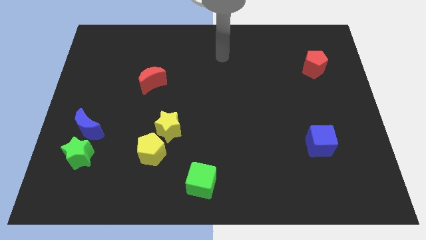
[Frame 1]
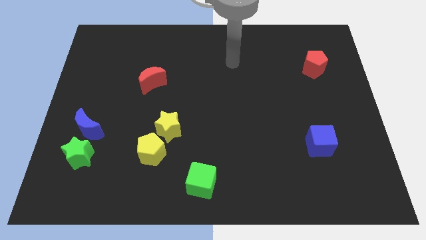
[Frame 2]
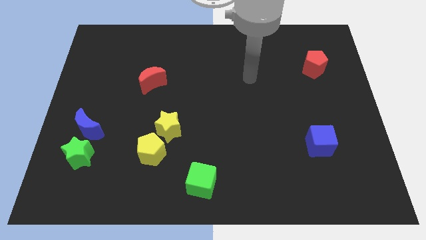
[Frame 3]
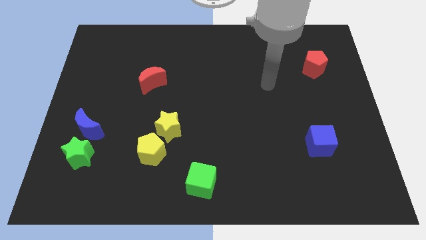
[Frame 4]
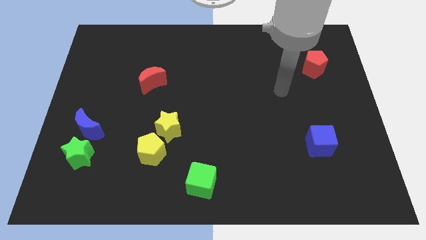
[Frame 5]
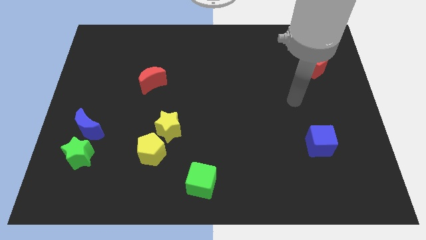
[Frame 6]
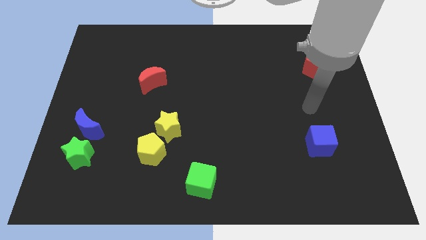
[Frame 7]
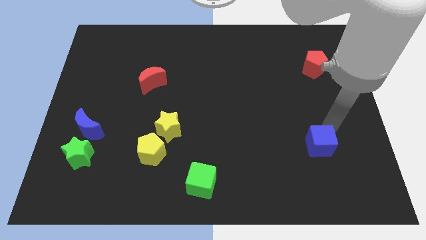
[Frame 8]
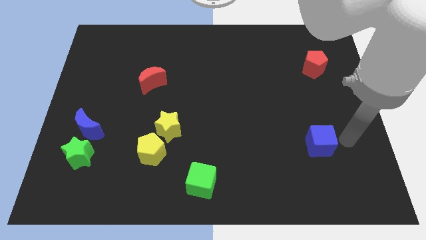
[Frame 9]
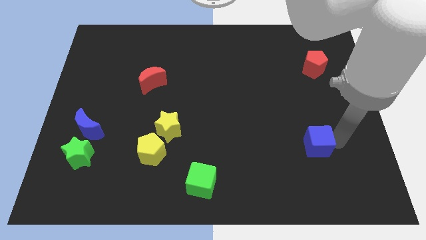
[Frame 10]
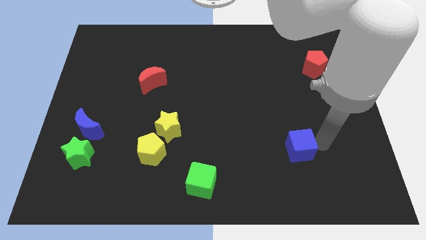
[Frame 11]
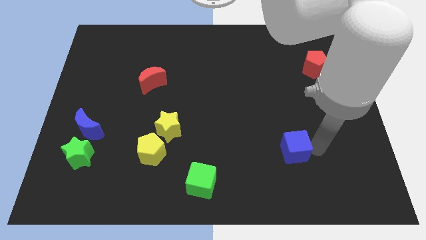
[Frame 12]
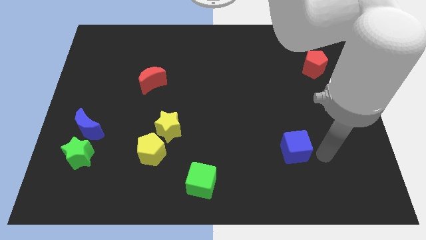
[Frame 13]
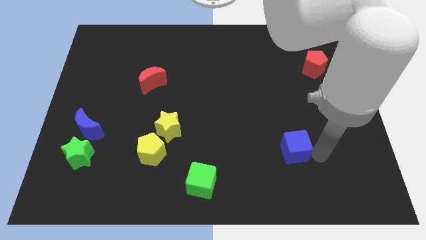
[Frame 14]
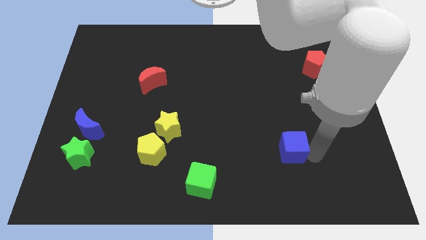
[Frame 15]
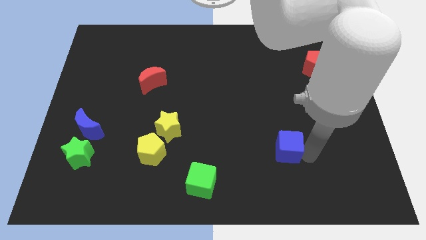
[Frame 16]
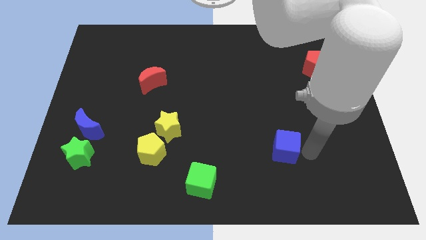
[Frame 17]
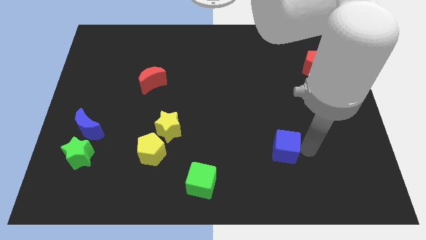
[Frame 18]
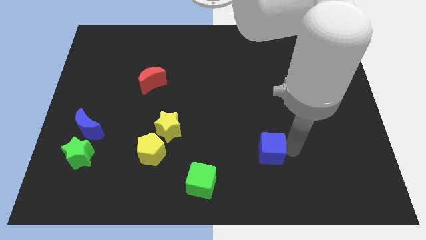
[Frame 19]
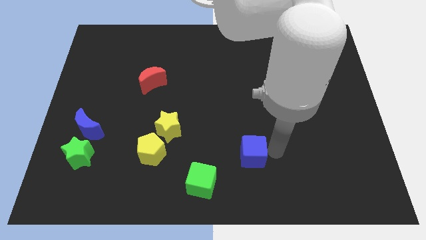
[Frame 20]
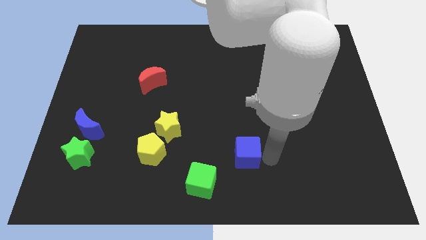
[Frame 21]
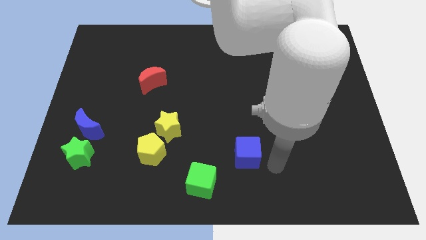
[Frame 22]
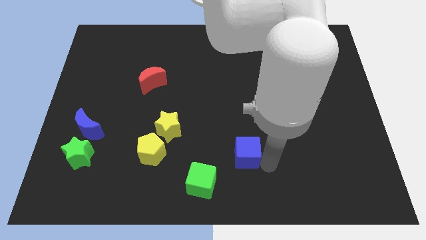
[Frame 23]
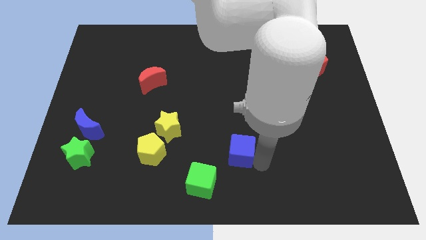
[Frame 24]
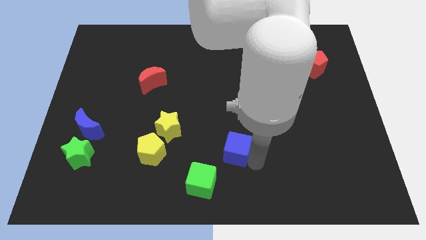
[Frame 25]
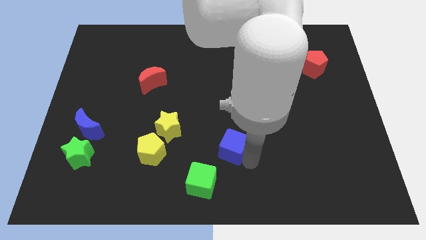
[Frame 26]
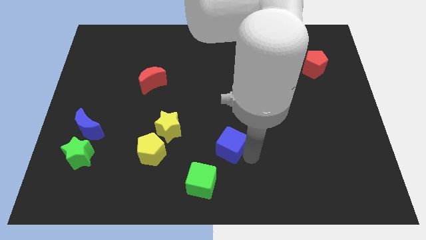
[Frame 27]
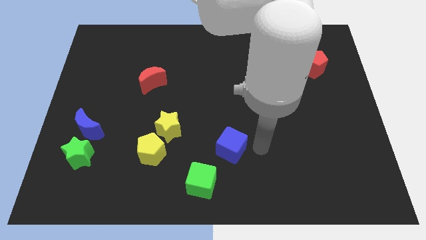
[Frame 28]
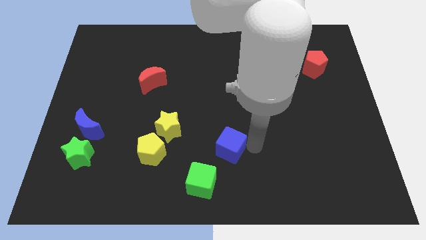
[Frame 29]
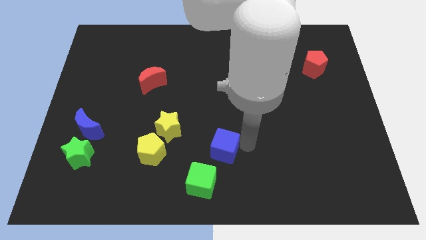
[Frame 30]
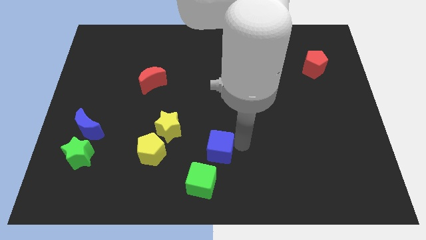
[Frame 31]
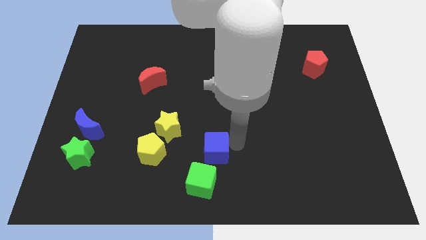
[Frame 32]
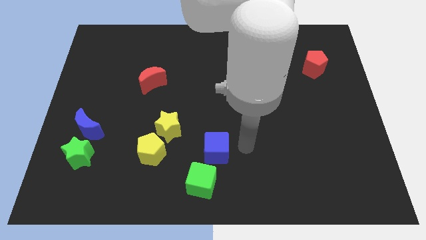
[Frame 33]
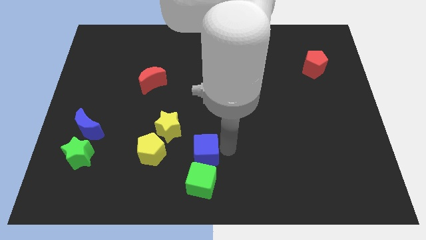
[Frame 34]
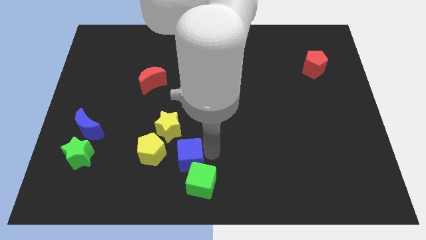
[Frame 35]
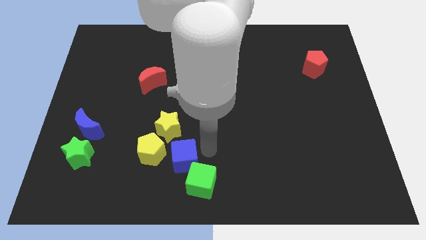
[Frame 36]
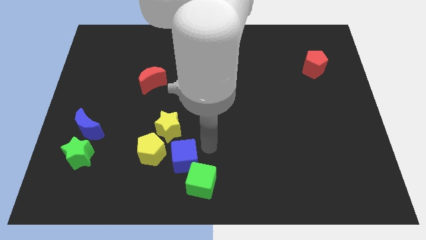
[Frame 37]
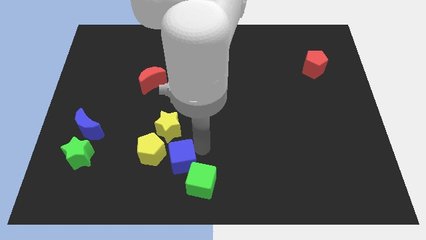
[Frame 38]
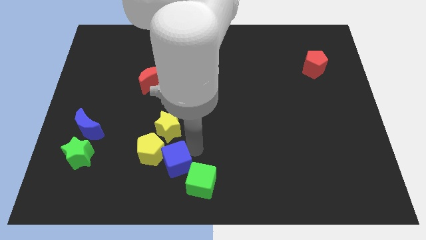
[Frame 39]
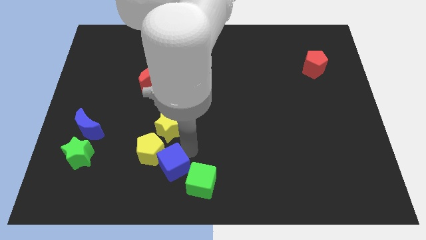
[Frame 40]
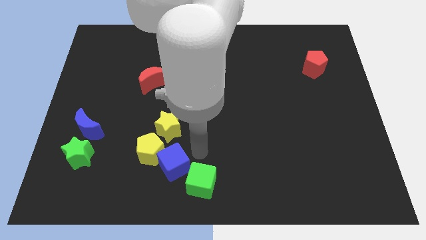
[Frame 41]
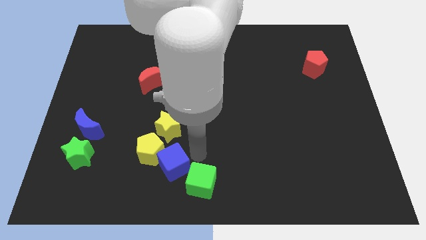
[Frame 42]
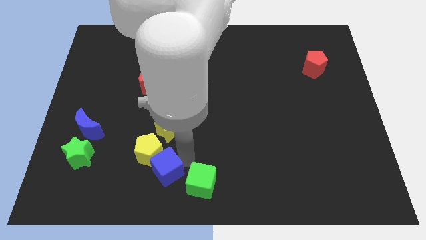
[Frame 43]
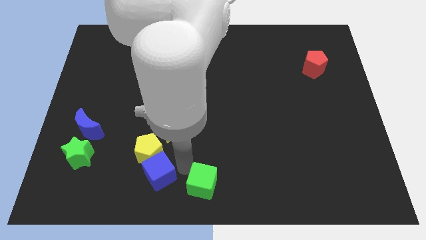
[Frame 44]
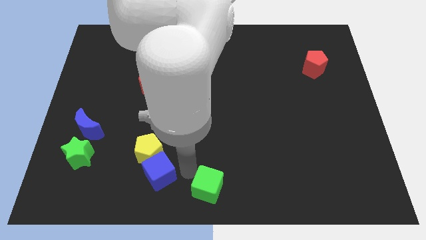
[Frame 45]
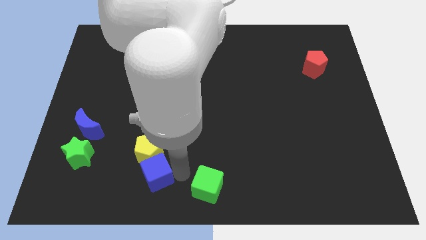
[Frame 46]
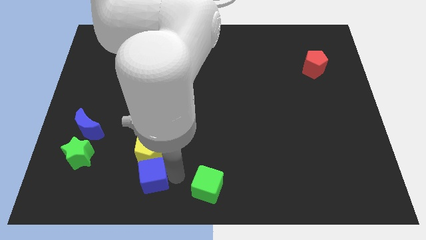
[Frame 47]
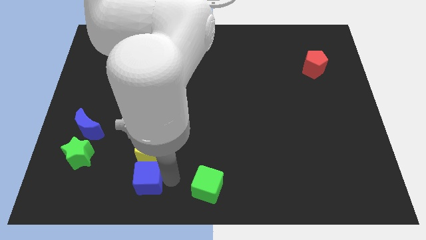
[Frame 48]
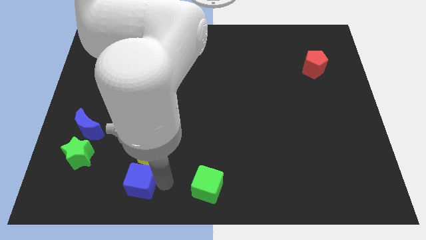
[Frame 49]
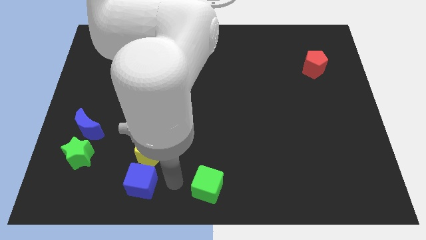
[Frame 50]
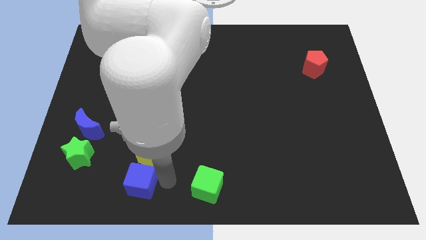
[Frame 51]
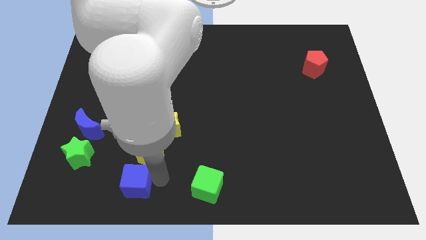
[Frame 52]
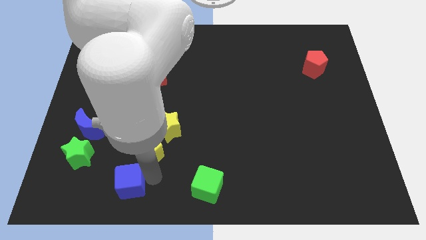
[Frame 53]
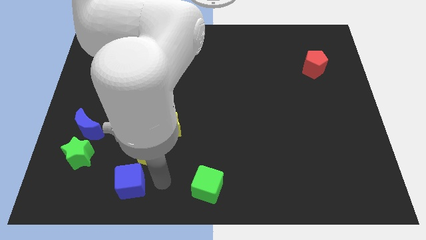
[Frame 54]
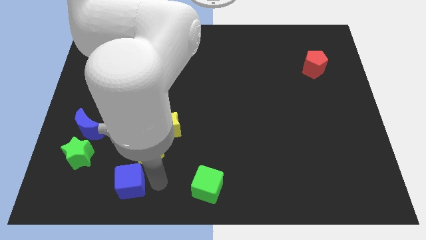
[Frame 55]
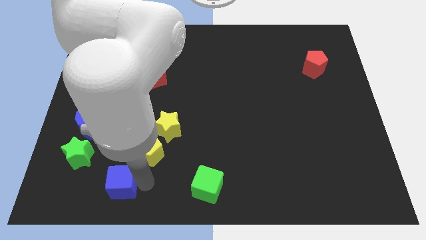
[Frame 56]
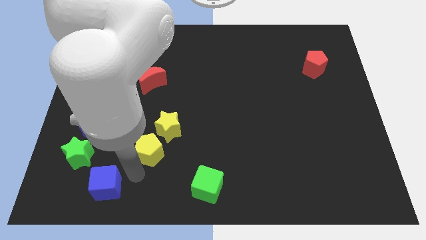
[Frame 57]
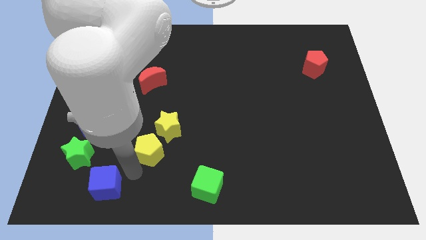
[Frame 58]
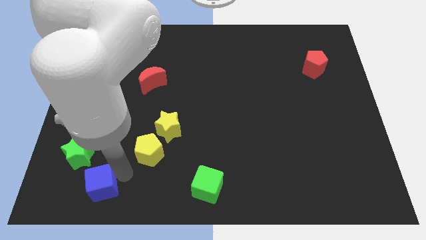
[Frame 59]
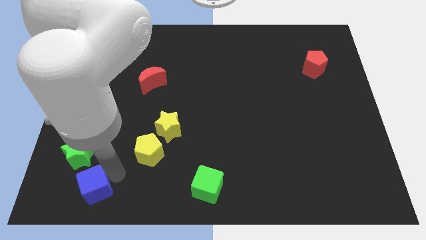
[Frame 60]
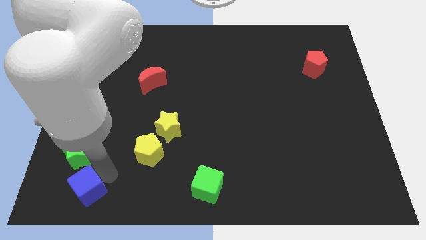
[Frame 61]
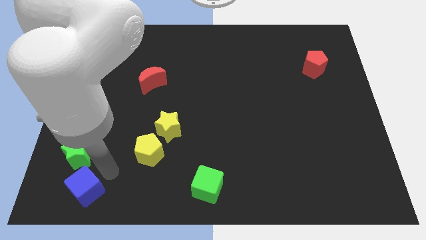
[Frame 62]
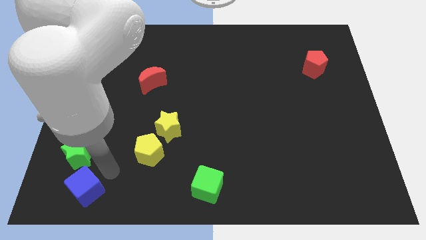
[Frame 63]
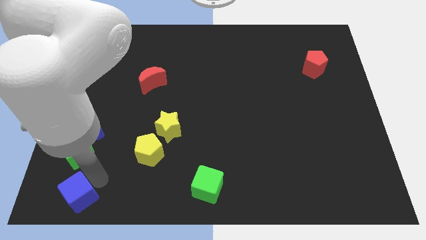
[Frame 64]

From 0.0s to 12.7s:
push the blue cube to the bottom left of the board

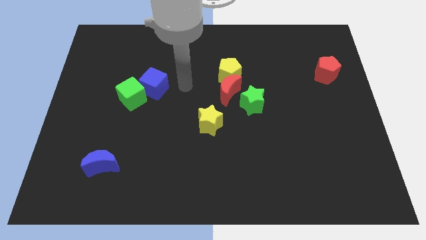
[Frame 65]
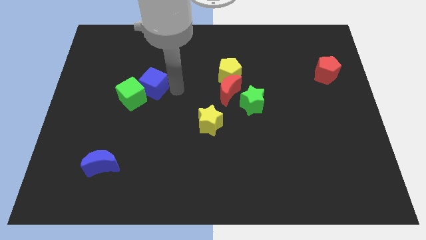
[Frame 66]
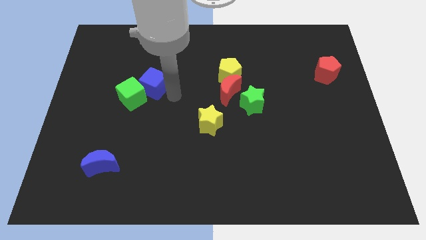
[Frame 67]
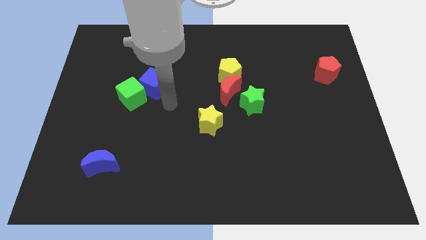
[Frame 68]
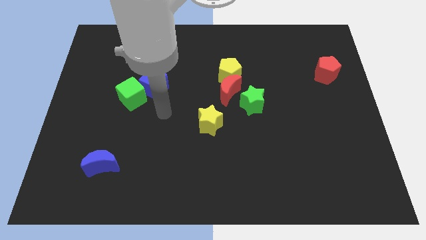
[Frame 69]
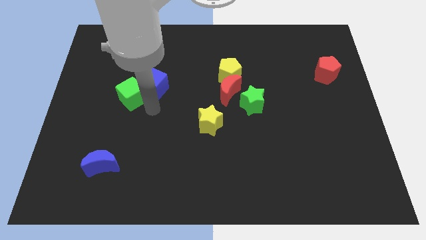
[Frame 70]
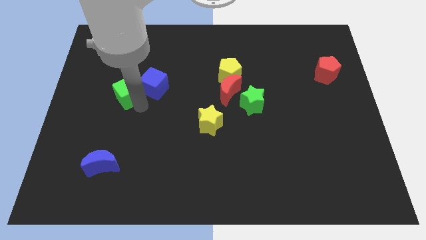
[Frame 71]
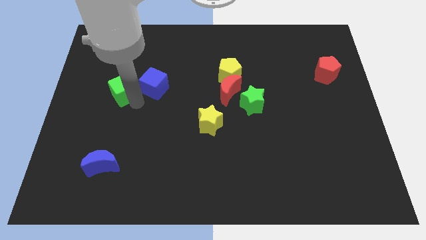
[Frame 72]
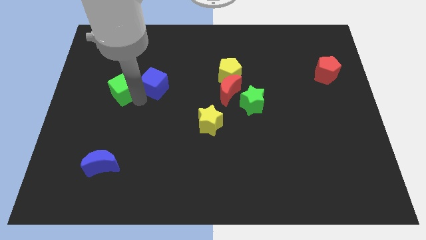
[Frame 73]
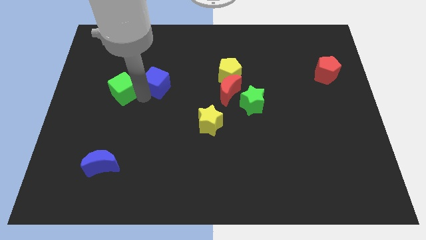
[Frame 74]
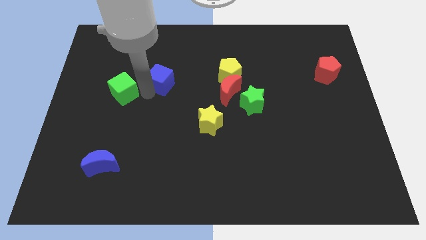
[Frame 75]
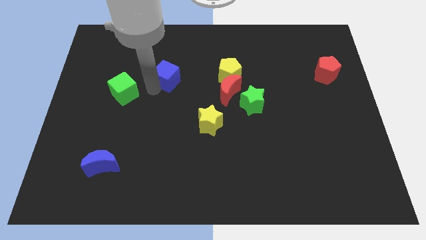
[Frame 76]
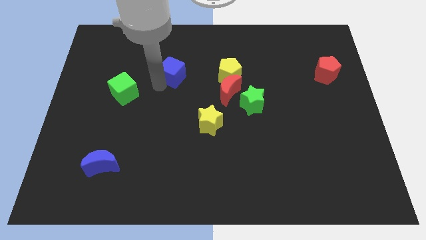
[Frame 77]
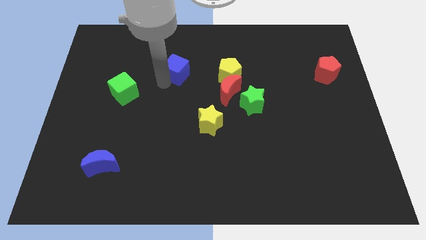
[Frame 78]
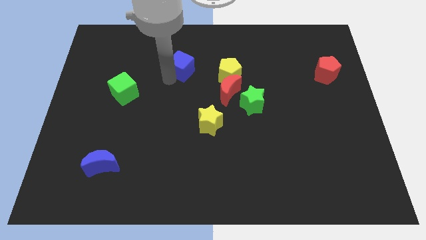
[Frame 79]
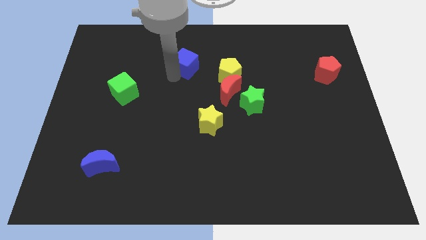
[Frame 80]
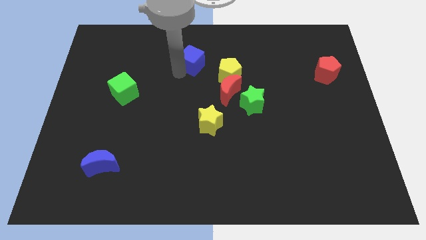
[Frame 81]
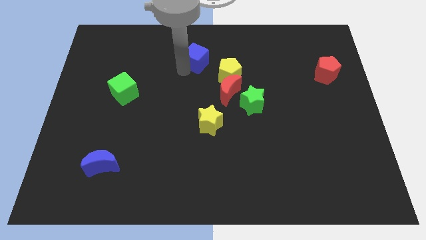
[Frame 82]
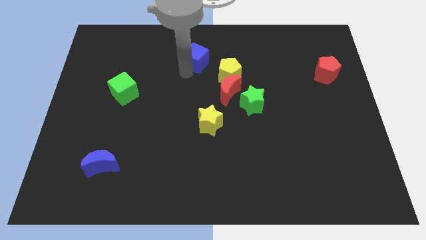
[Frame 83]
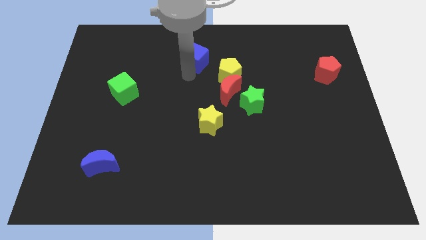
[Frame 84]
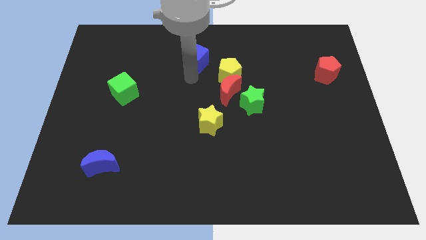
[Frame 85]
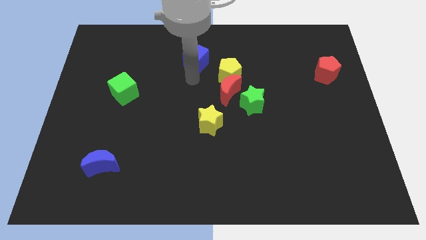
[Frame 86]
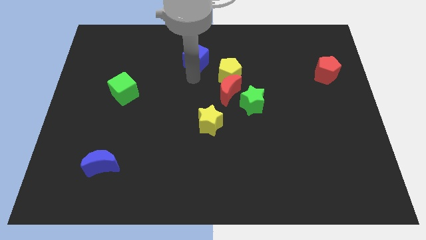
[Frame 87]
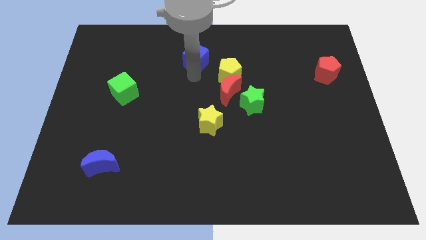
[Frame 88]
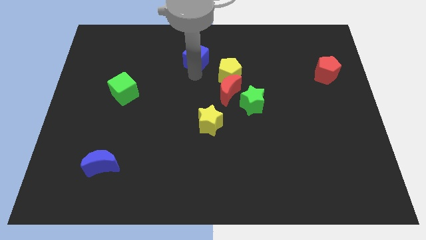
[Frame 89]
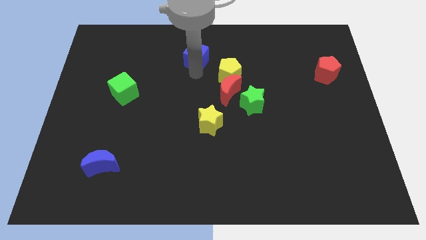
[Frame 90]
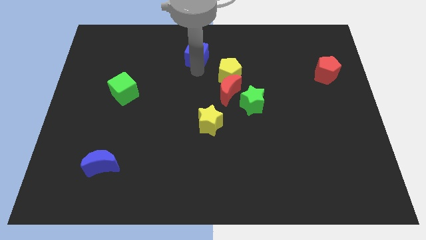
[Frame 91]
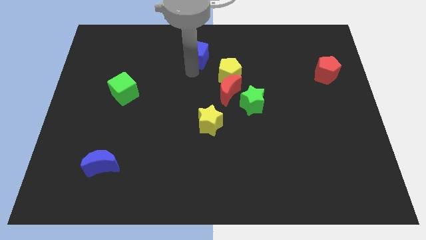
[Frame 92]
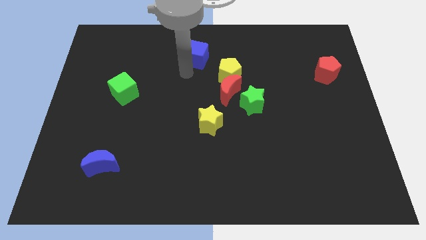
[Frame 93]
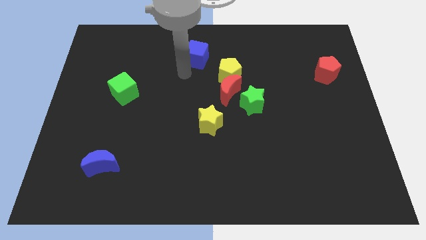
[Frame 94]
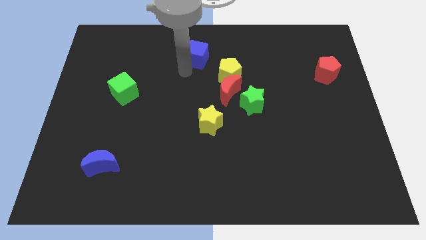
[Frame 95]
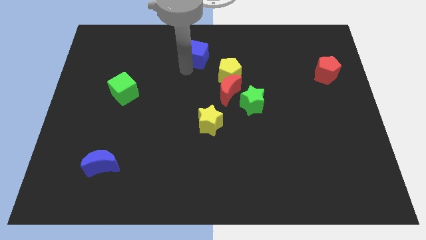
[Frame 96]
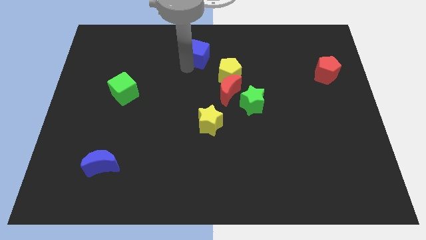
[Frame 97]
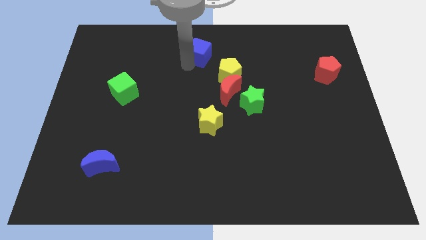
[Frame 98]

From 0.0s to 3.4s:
push the blue cube to the towards your base
